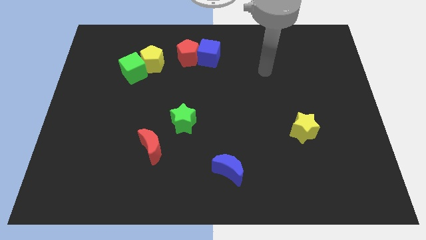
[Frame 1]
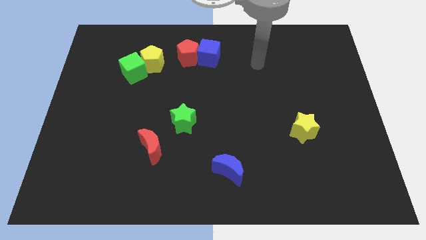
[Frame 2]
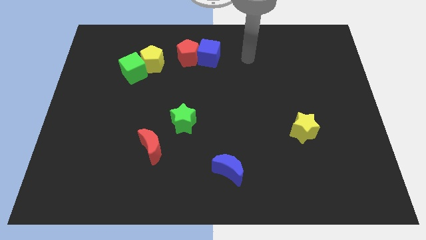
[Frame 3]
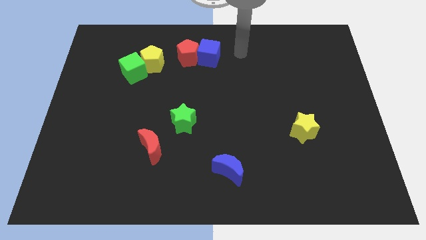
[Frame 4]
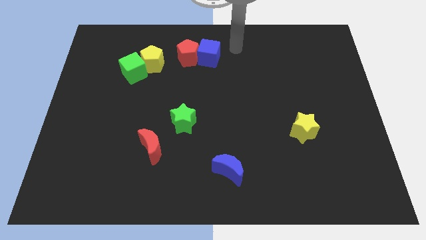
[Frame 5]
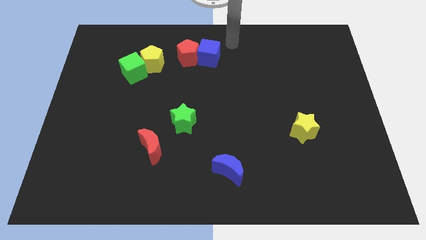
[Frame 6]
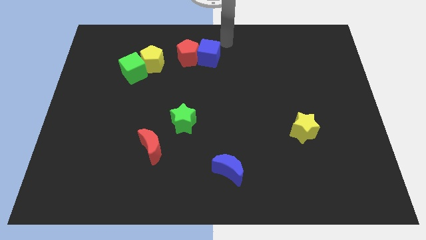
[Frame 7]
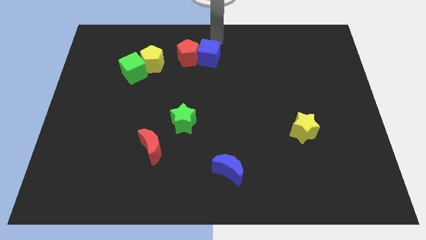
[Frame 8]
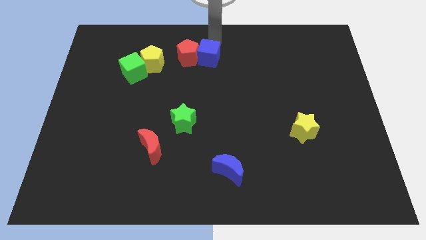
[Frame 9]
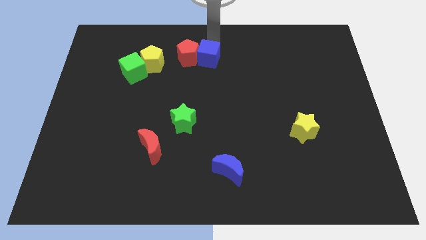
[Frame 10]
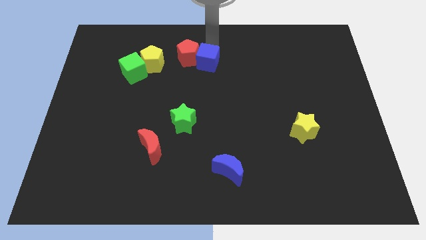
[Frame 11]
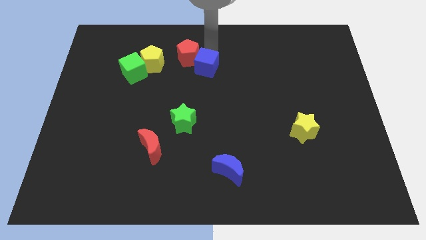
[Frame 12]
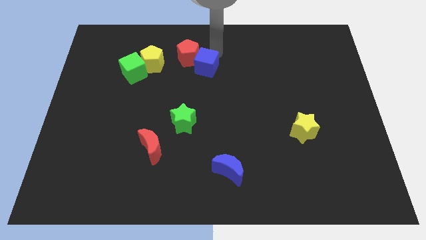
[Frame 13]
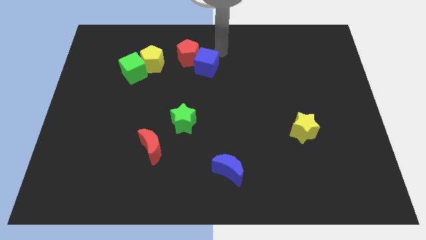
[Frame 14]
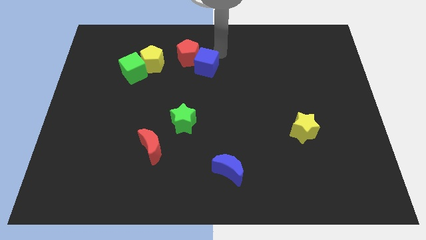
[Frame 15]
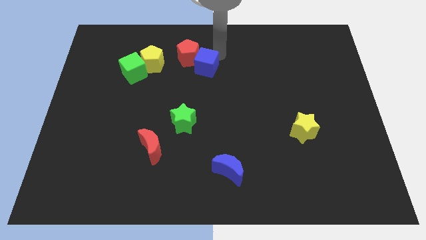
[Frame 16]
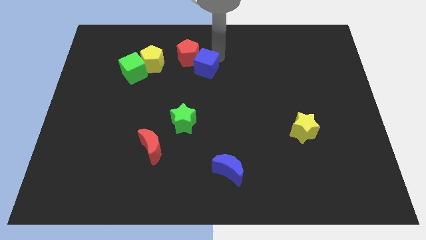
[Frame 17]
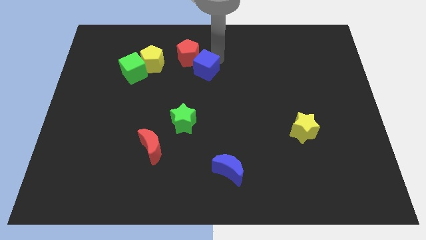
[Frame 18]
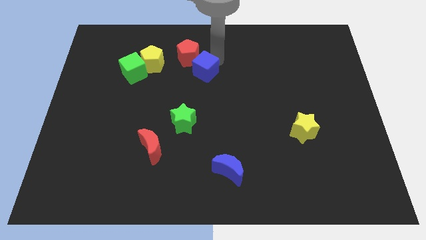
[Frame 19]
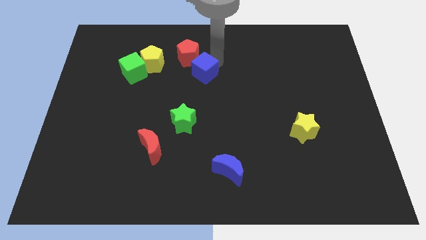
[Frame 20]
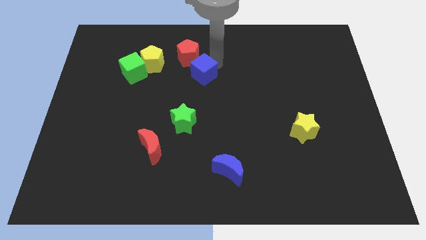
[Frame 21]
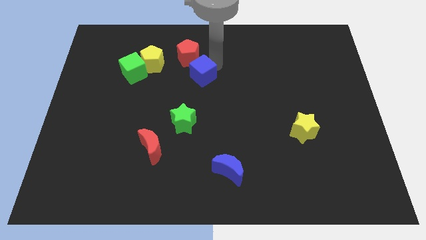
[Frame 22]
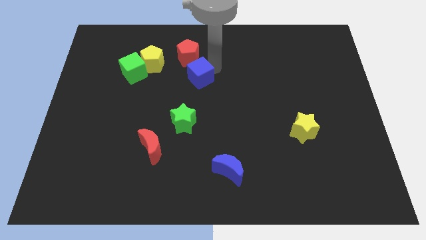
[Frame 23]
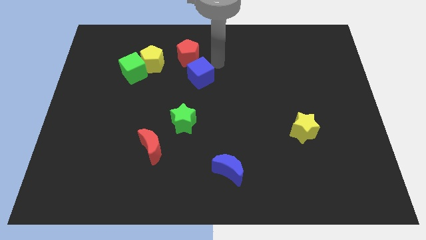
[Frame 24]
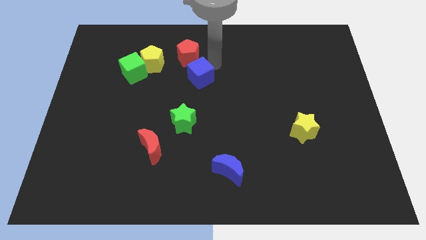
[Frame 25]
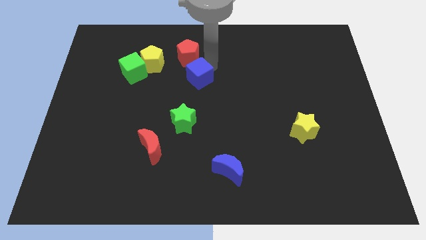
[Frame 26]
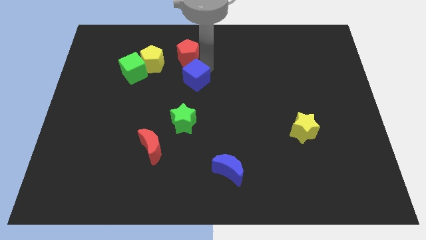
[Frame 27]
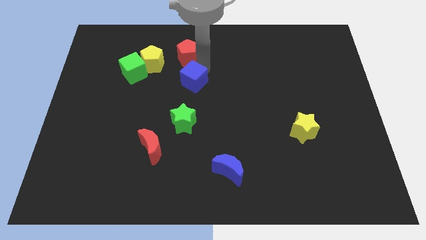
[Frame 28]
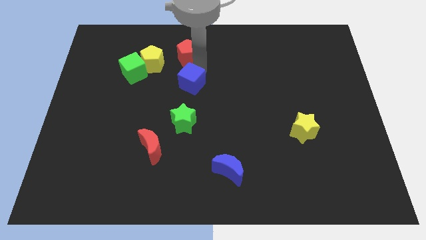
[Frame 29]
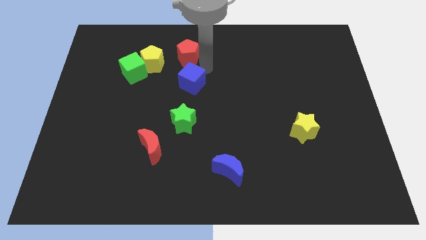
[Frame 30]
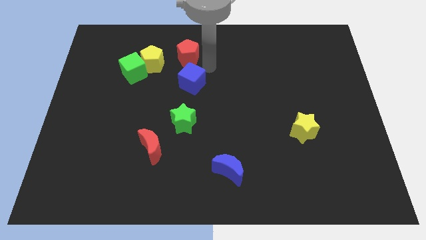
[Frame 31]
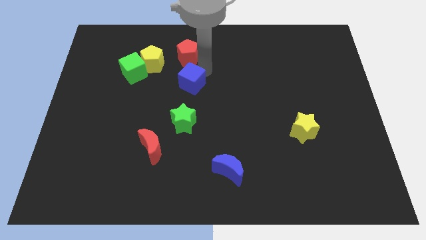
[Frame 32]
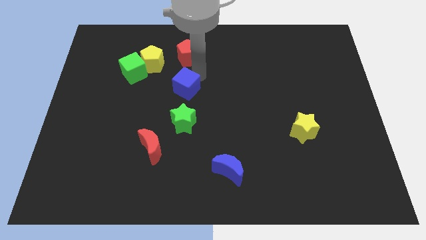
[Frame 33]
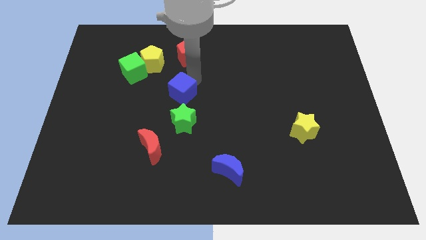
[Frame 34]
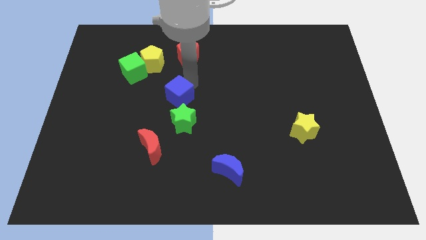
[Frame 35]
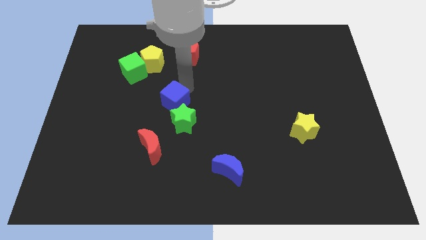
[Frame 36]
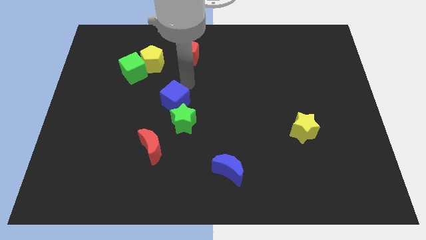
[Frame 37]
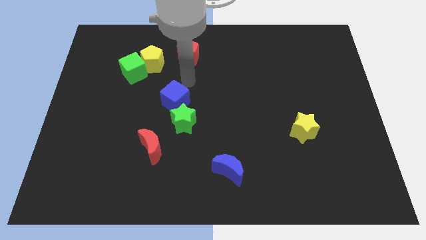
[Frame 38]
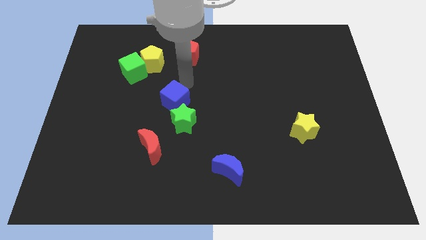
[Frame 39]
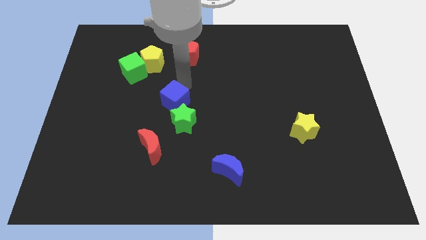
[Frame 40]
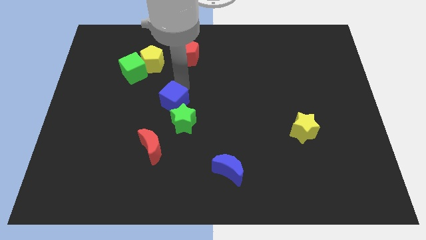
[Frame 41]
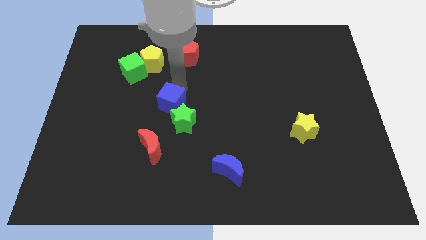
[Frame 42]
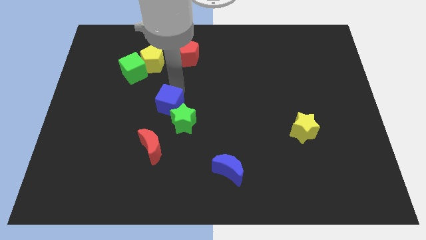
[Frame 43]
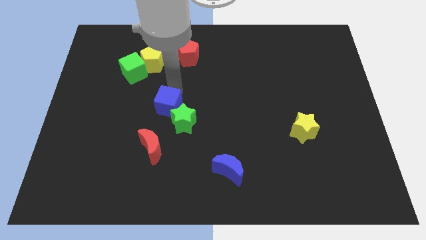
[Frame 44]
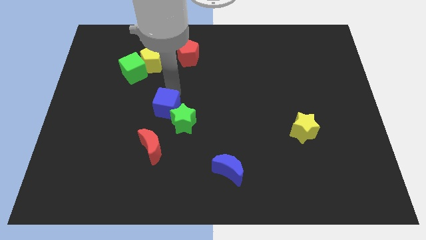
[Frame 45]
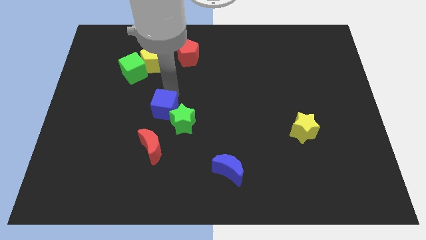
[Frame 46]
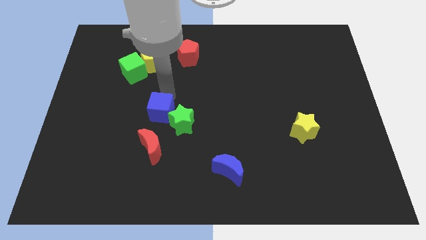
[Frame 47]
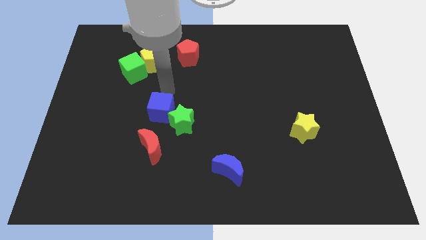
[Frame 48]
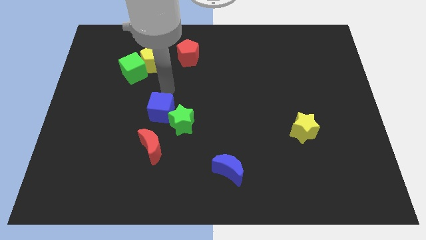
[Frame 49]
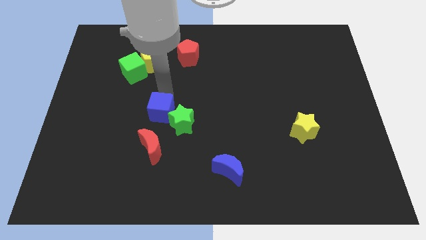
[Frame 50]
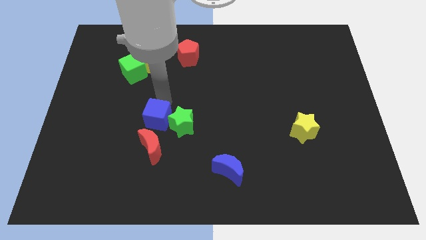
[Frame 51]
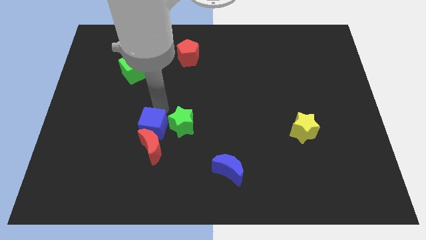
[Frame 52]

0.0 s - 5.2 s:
put the blue cube to the red moon

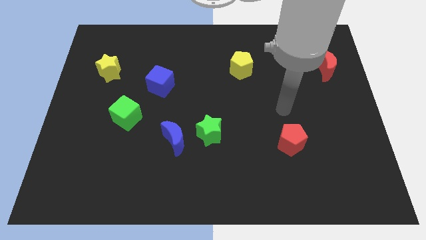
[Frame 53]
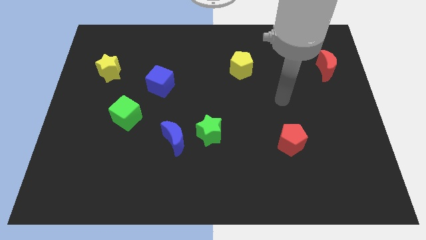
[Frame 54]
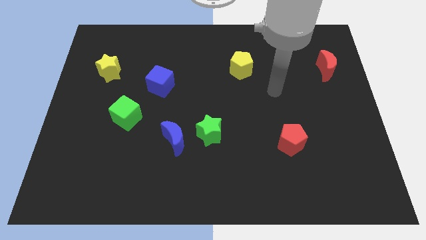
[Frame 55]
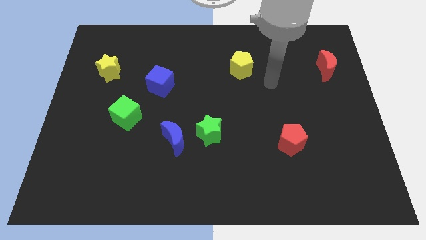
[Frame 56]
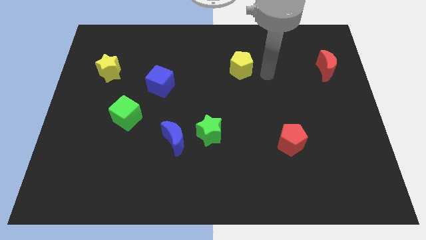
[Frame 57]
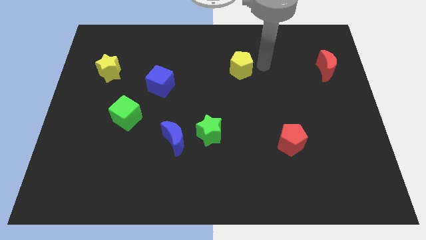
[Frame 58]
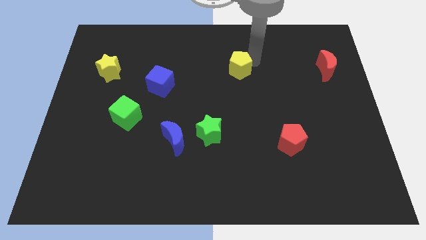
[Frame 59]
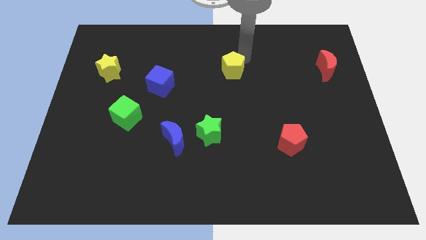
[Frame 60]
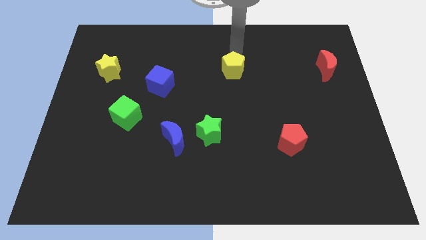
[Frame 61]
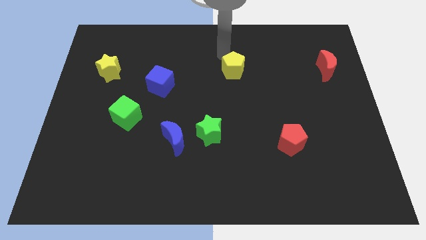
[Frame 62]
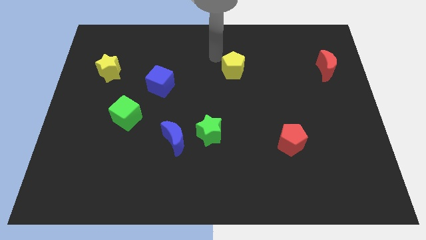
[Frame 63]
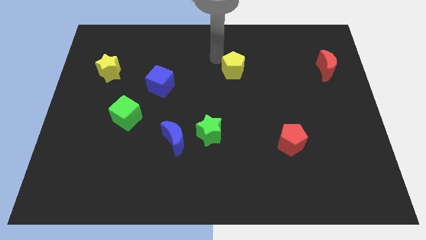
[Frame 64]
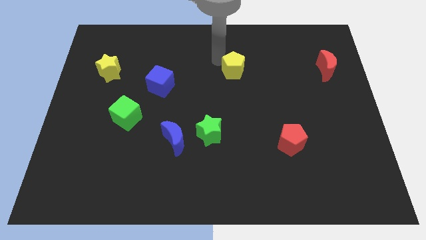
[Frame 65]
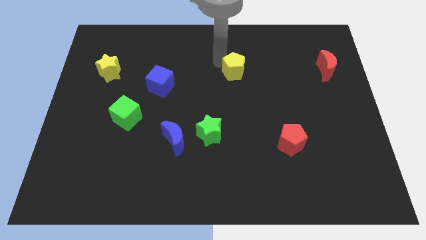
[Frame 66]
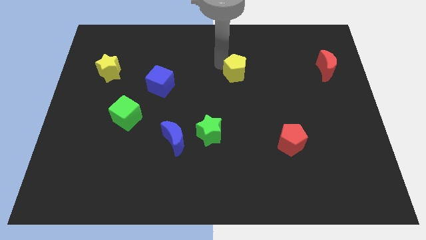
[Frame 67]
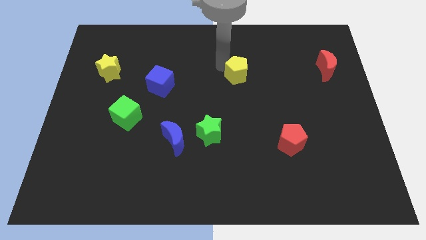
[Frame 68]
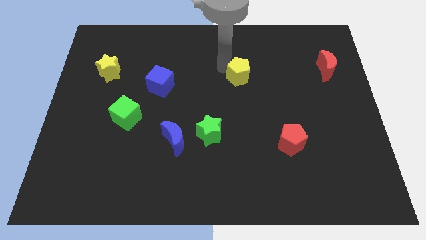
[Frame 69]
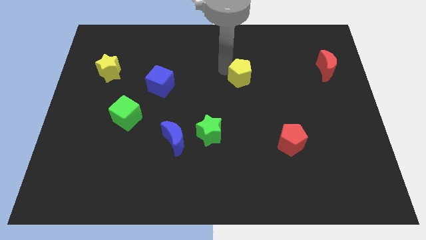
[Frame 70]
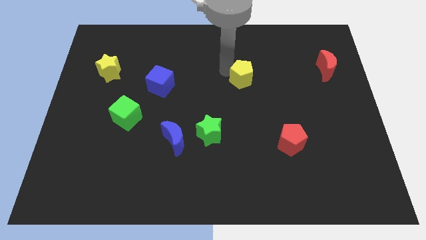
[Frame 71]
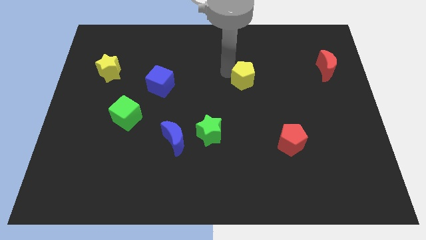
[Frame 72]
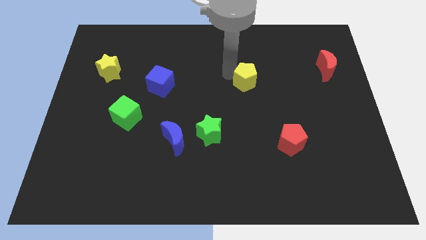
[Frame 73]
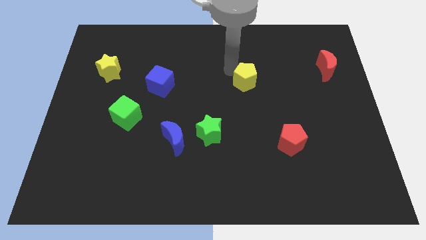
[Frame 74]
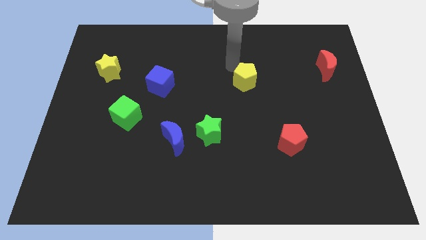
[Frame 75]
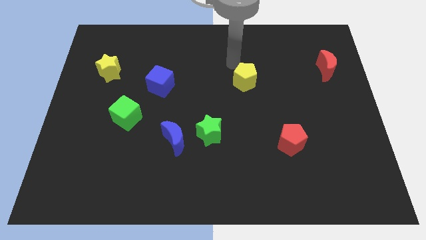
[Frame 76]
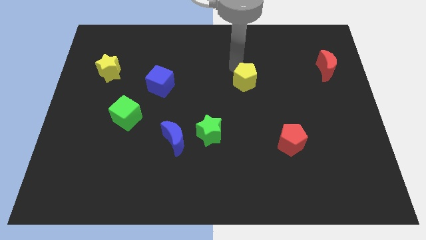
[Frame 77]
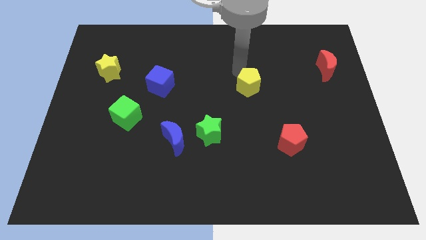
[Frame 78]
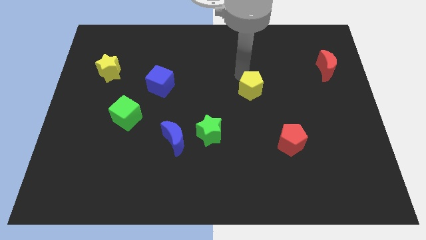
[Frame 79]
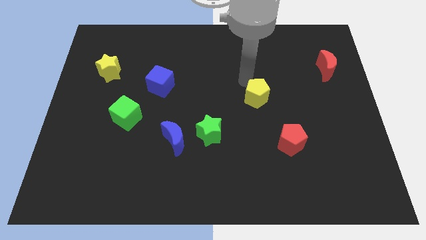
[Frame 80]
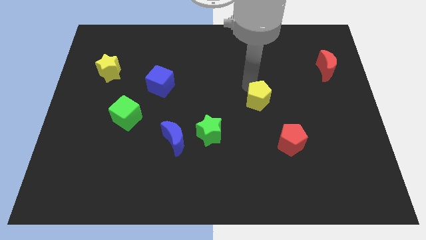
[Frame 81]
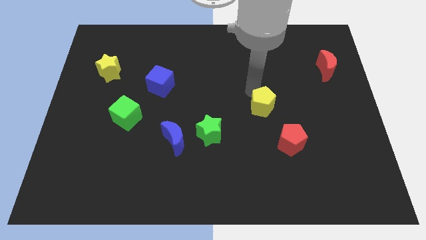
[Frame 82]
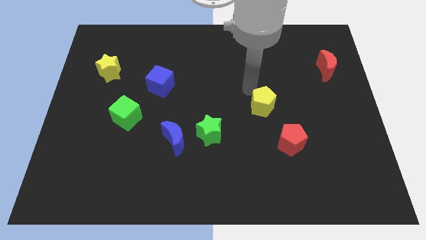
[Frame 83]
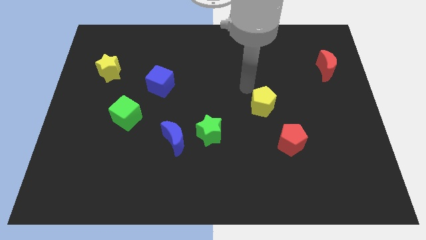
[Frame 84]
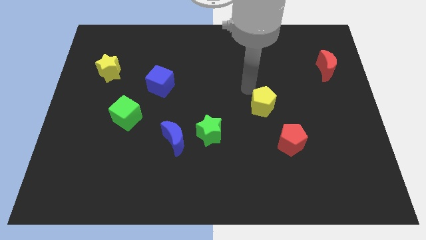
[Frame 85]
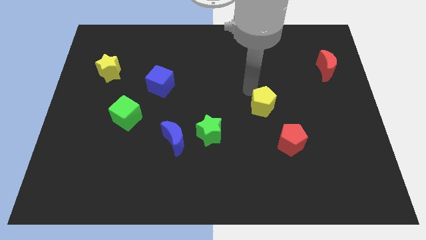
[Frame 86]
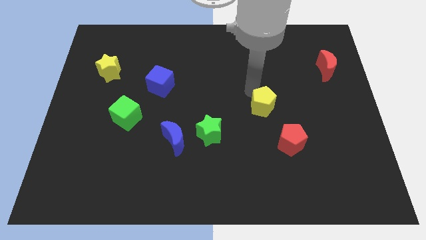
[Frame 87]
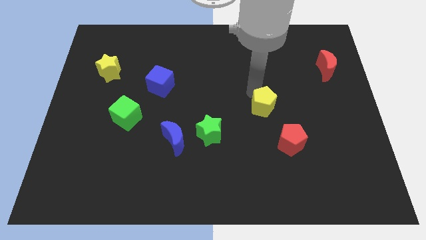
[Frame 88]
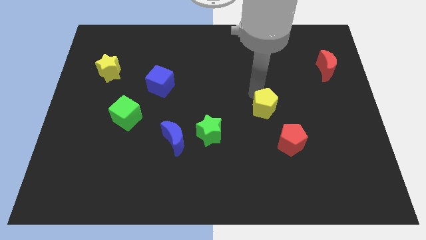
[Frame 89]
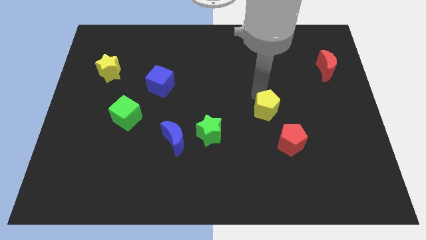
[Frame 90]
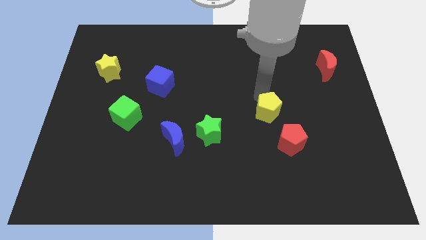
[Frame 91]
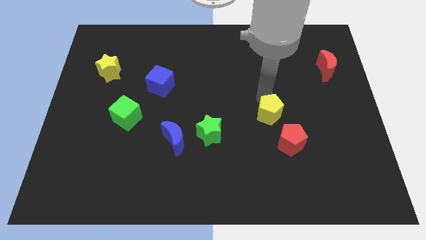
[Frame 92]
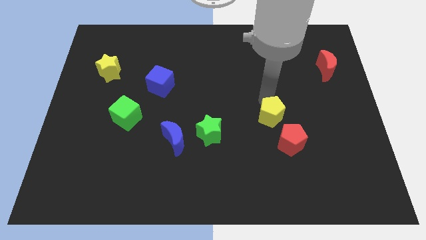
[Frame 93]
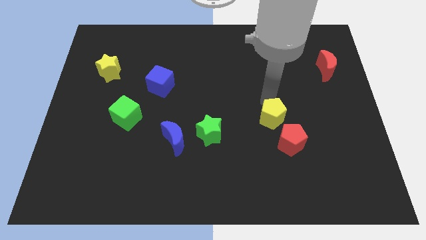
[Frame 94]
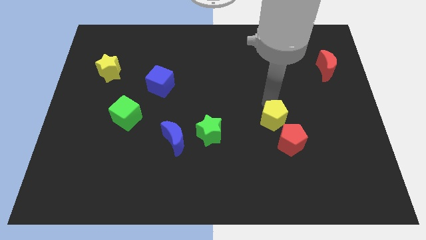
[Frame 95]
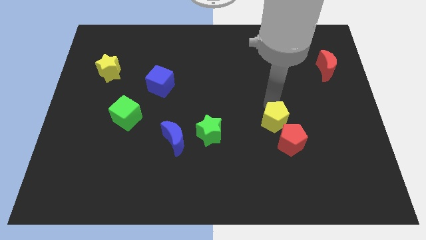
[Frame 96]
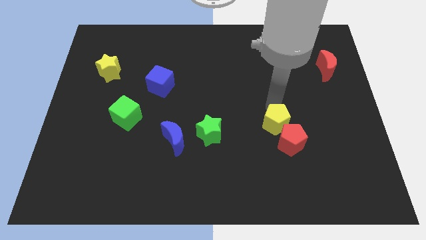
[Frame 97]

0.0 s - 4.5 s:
move the yellow pentagon to the red pentagon
